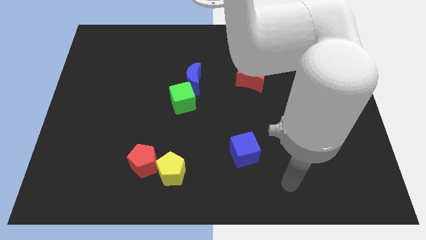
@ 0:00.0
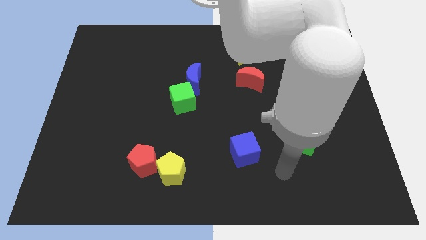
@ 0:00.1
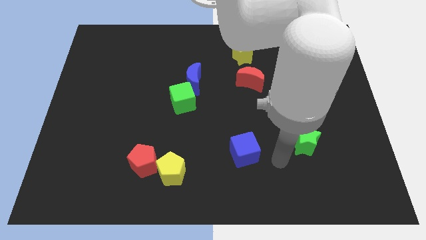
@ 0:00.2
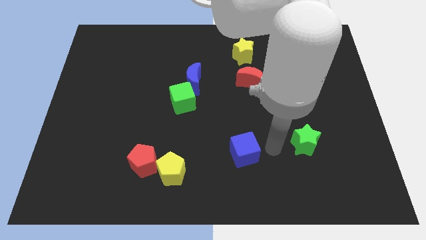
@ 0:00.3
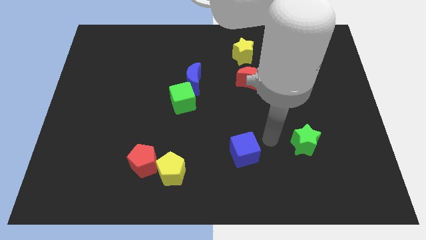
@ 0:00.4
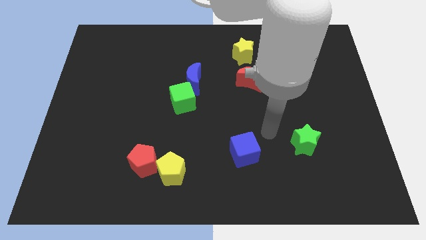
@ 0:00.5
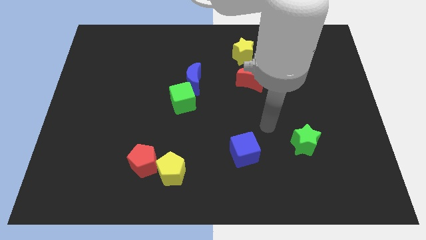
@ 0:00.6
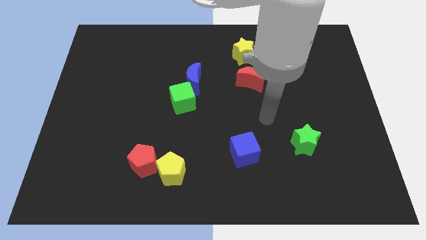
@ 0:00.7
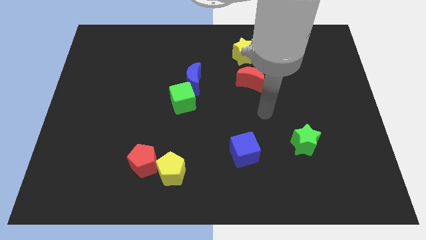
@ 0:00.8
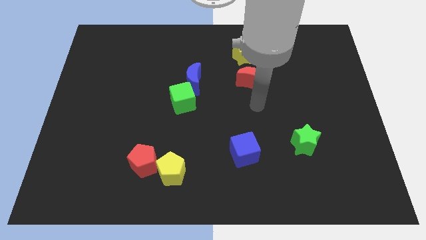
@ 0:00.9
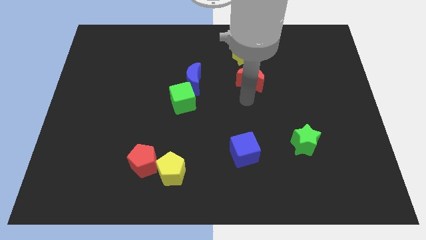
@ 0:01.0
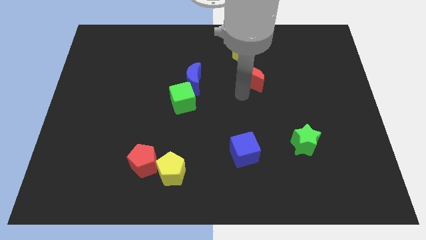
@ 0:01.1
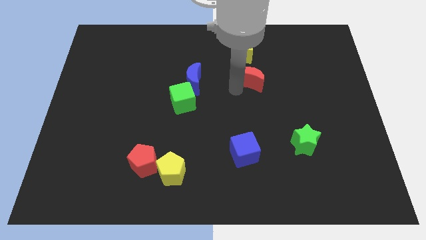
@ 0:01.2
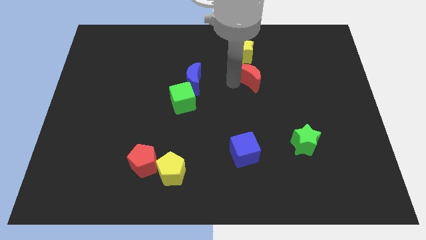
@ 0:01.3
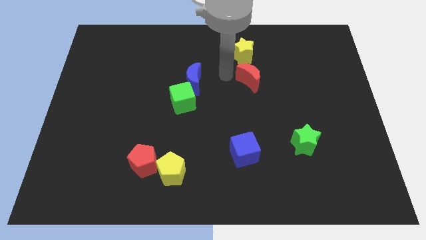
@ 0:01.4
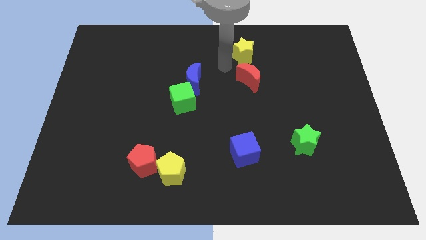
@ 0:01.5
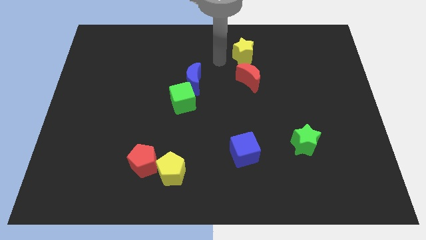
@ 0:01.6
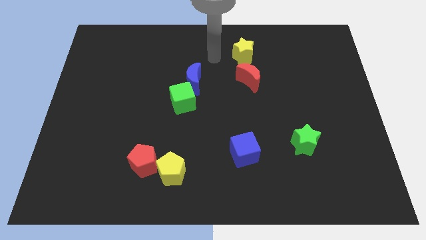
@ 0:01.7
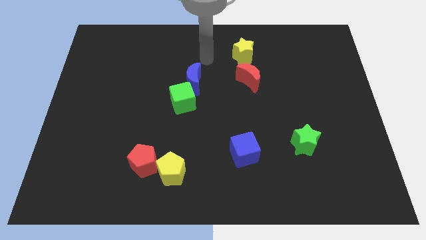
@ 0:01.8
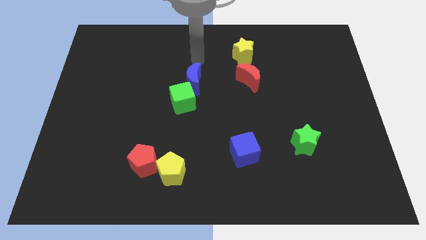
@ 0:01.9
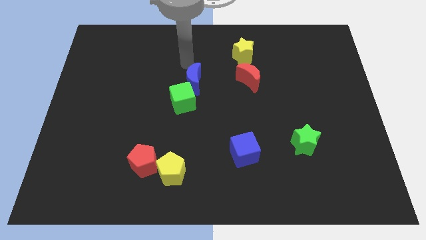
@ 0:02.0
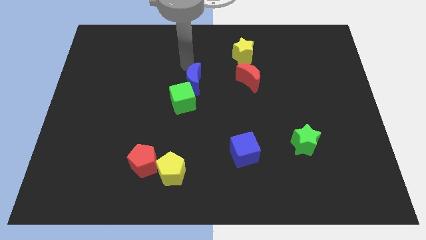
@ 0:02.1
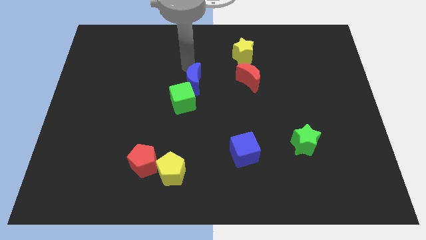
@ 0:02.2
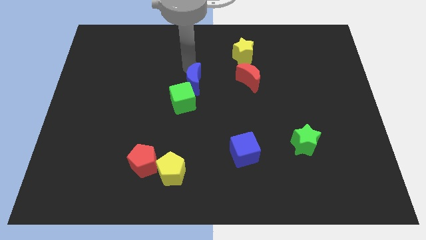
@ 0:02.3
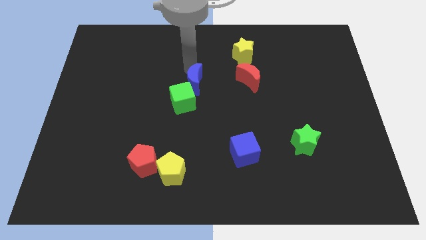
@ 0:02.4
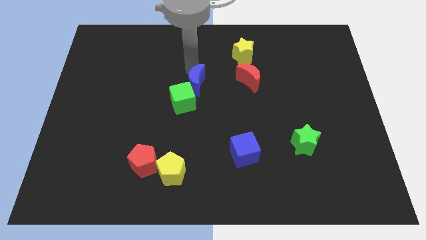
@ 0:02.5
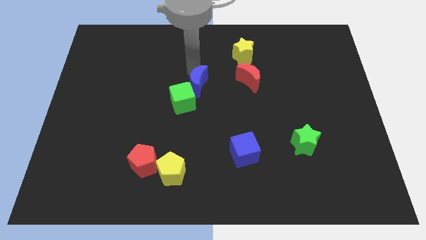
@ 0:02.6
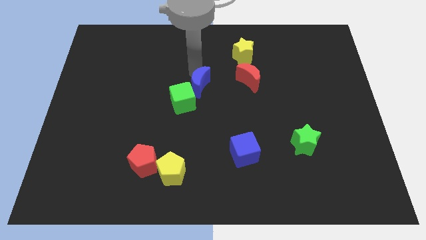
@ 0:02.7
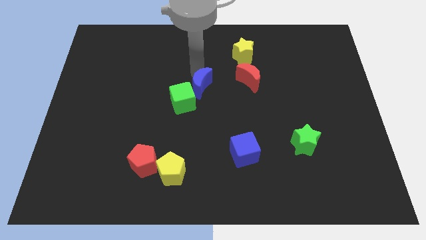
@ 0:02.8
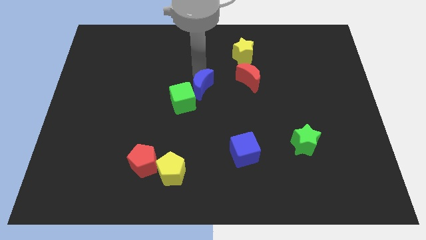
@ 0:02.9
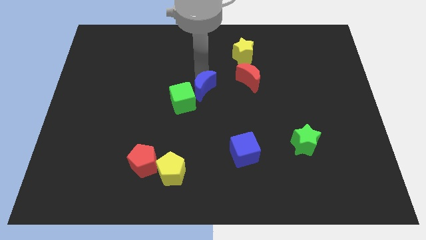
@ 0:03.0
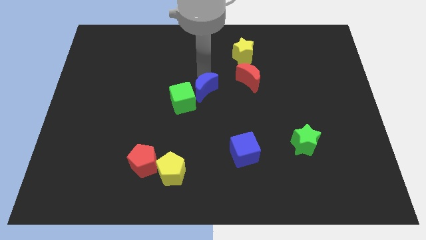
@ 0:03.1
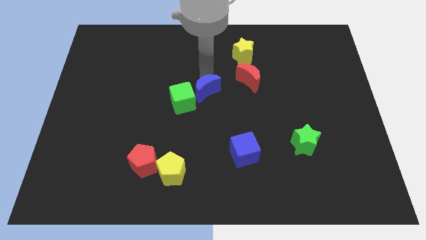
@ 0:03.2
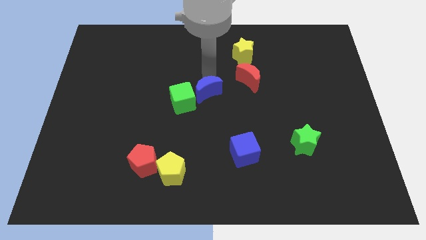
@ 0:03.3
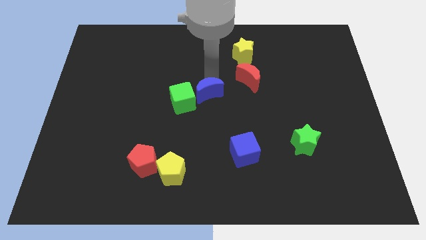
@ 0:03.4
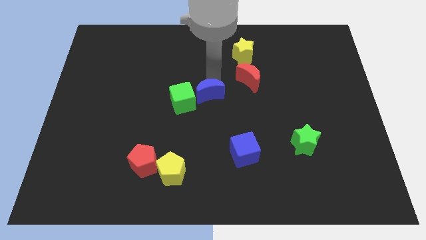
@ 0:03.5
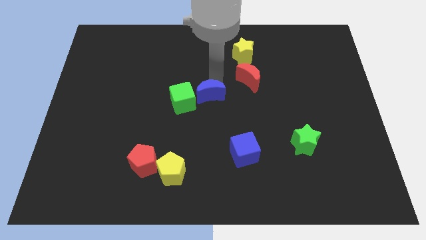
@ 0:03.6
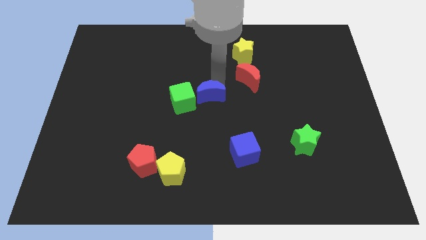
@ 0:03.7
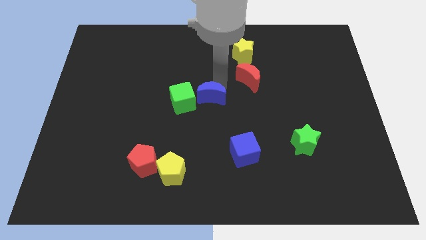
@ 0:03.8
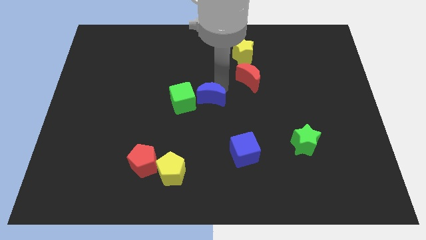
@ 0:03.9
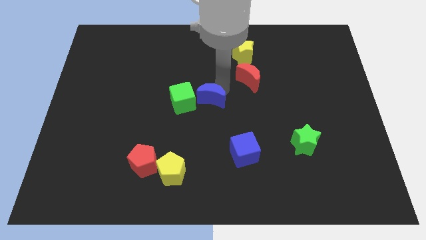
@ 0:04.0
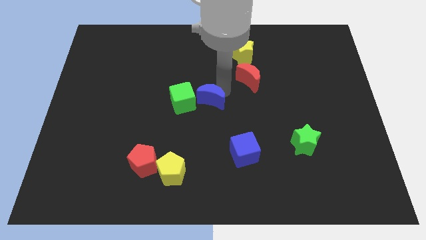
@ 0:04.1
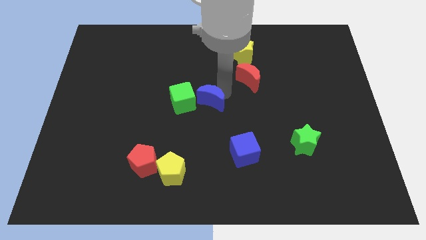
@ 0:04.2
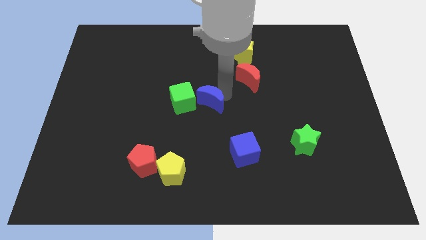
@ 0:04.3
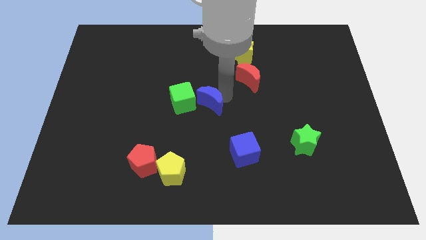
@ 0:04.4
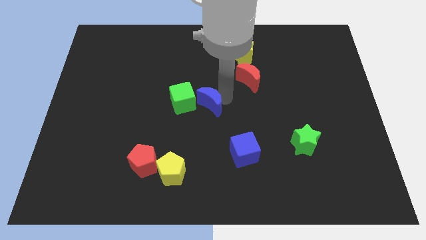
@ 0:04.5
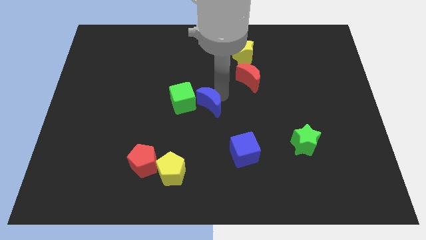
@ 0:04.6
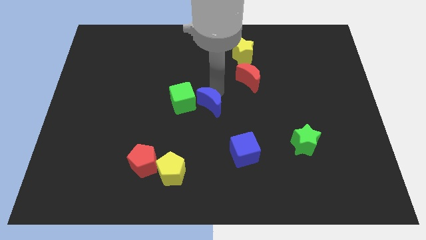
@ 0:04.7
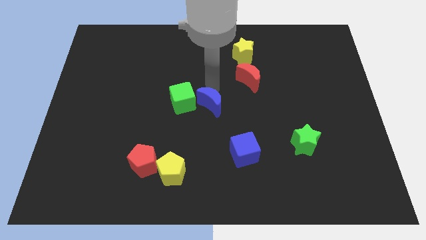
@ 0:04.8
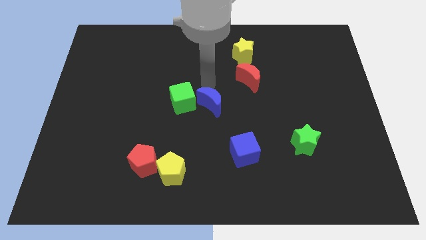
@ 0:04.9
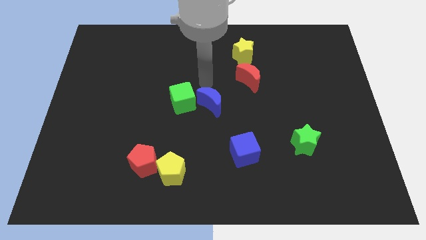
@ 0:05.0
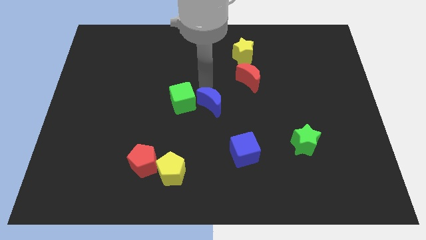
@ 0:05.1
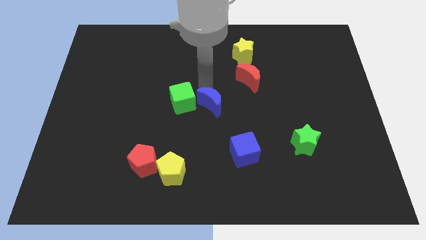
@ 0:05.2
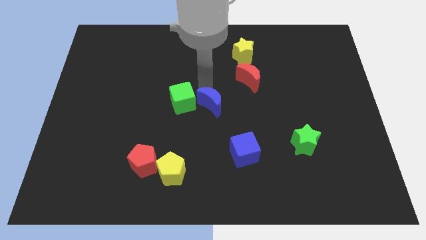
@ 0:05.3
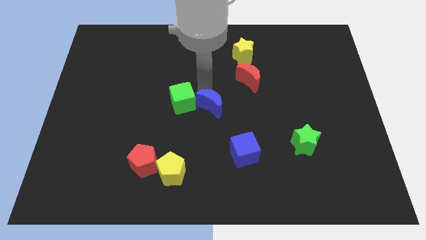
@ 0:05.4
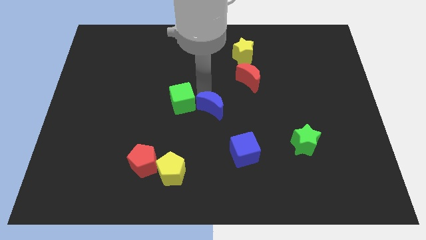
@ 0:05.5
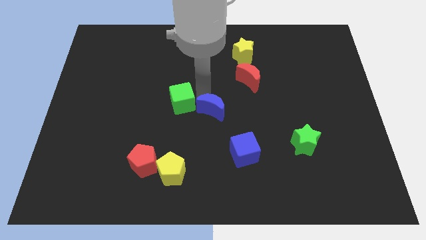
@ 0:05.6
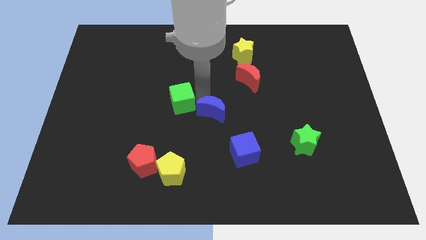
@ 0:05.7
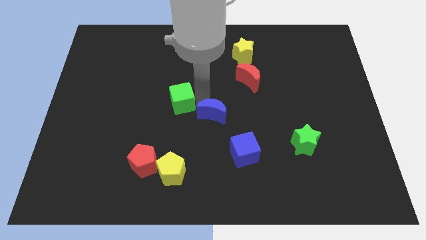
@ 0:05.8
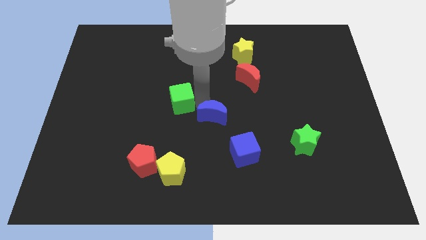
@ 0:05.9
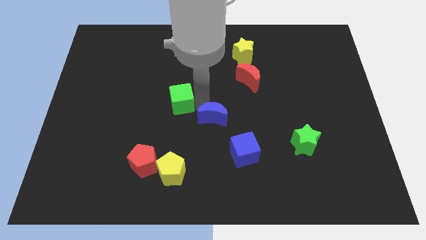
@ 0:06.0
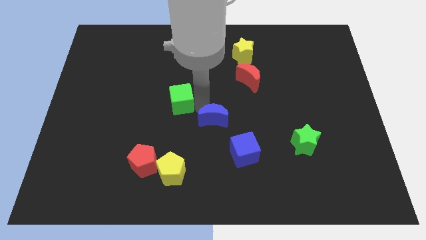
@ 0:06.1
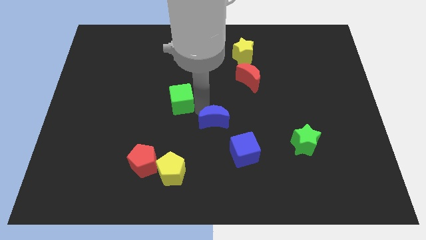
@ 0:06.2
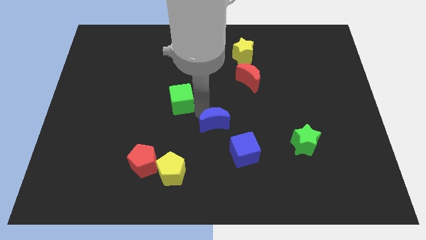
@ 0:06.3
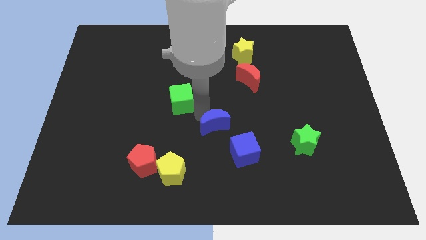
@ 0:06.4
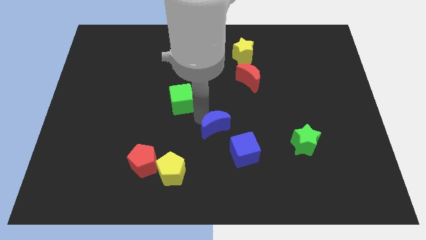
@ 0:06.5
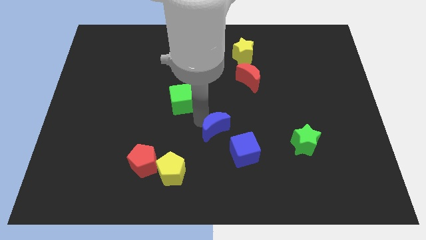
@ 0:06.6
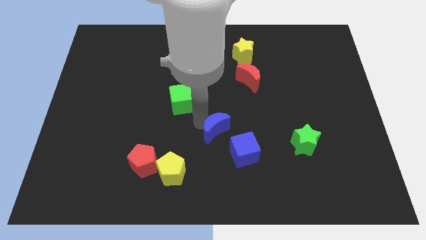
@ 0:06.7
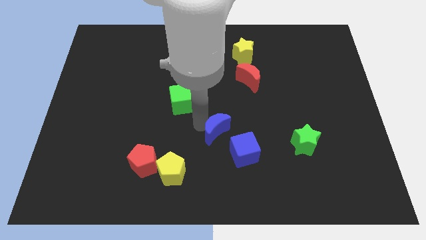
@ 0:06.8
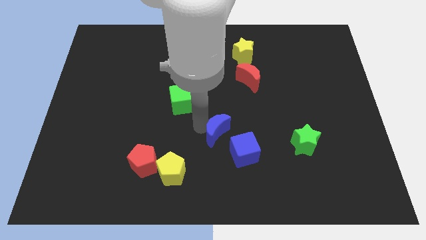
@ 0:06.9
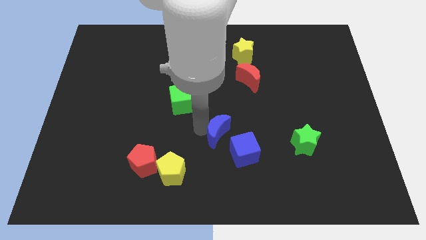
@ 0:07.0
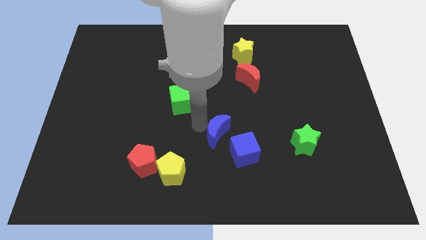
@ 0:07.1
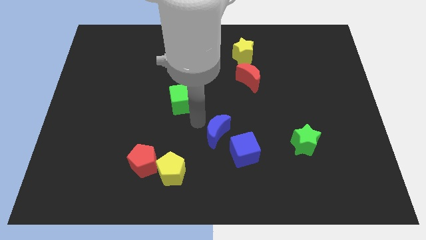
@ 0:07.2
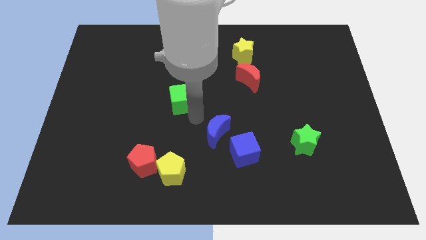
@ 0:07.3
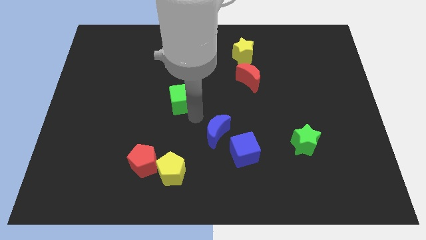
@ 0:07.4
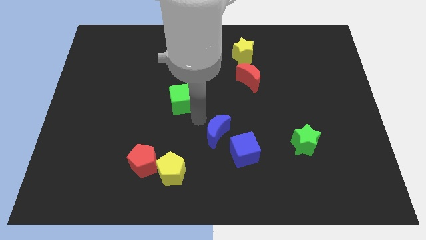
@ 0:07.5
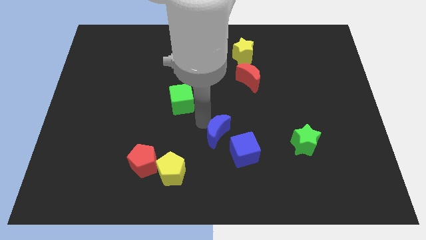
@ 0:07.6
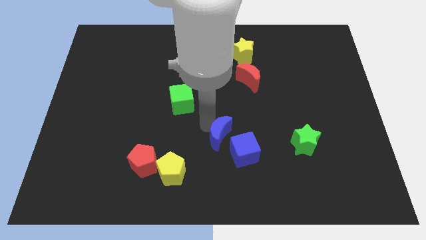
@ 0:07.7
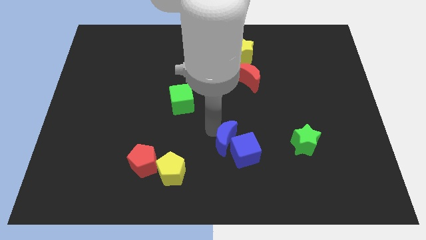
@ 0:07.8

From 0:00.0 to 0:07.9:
move the blue moon next to the blue cube
